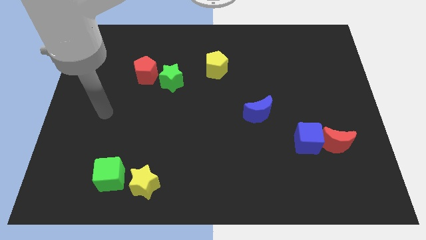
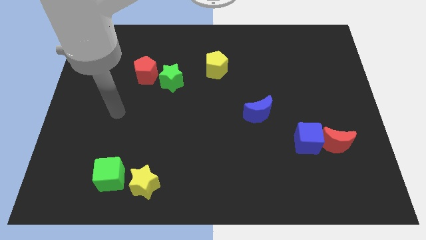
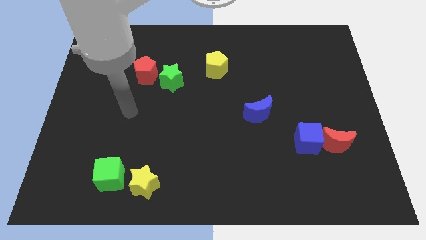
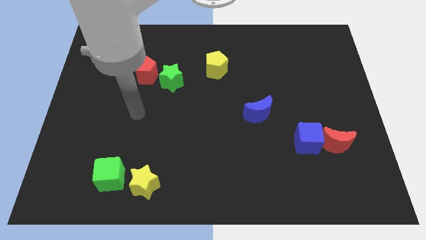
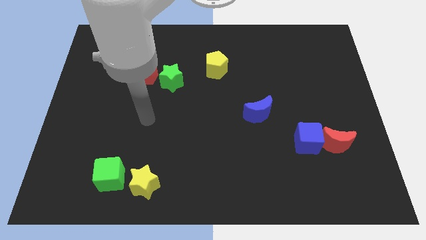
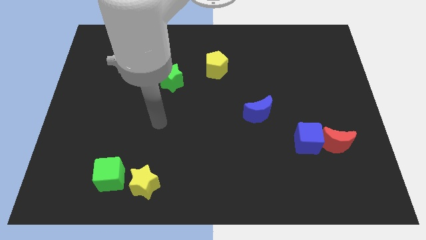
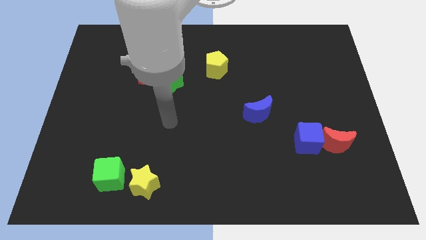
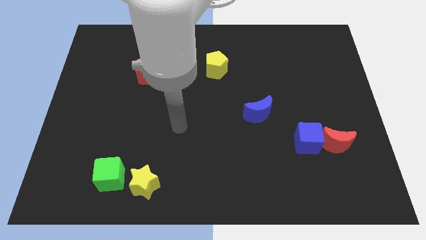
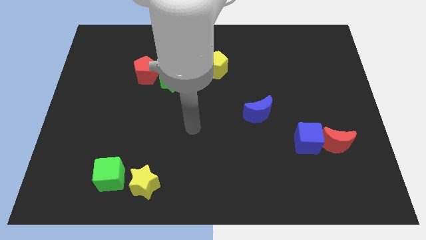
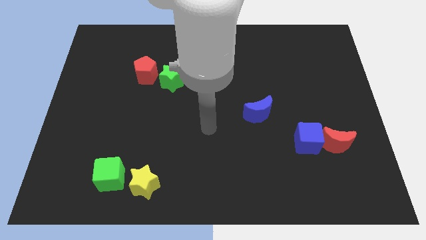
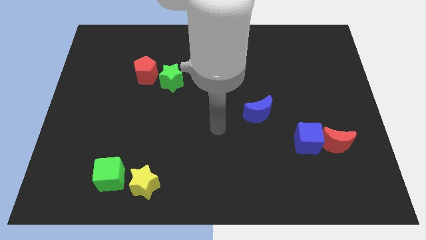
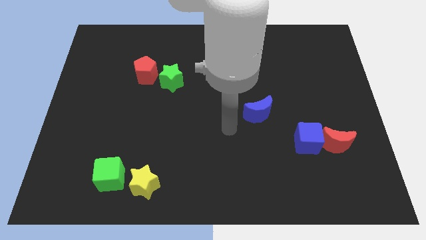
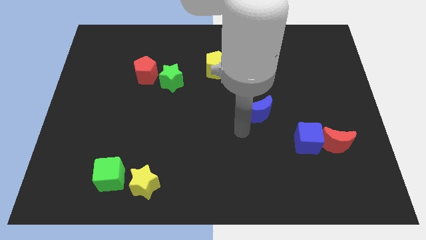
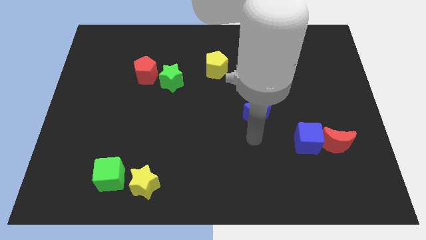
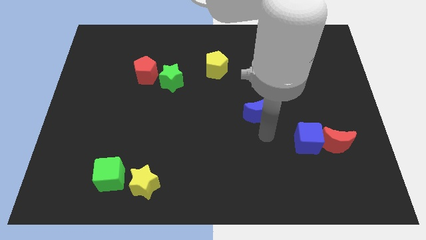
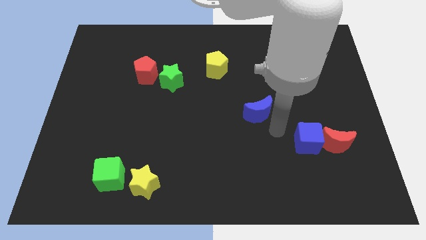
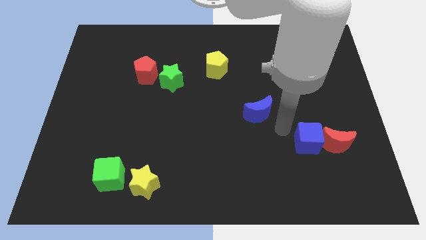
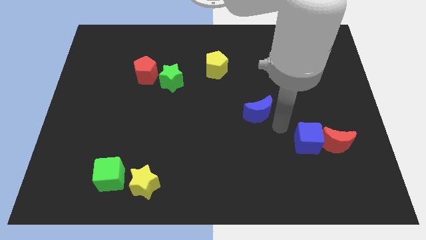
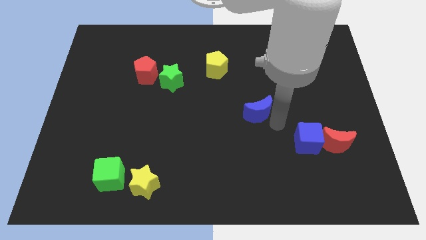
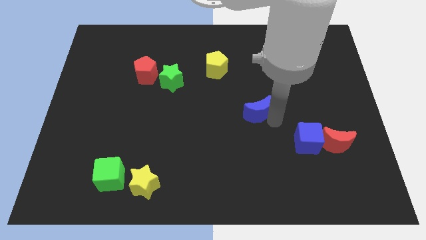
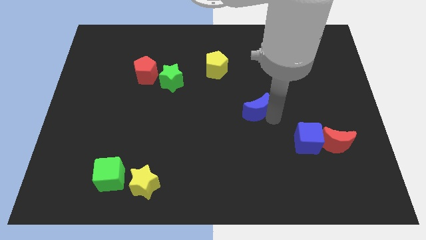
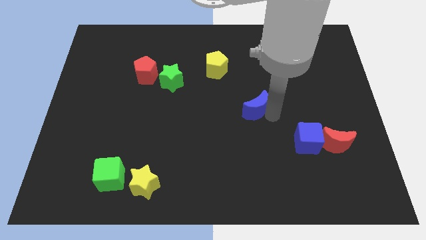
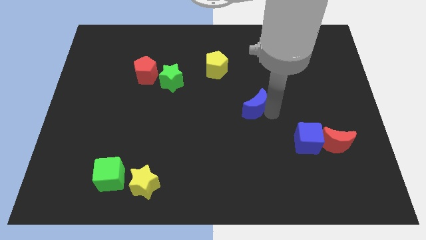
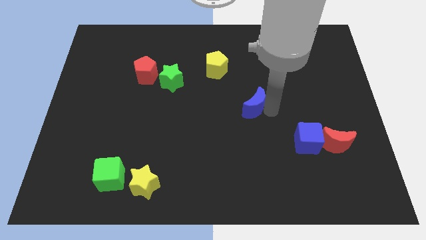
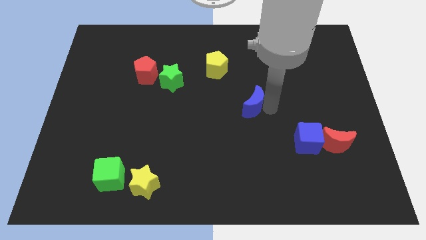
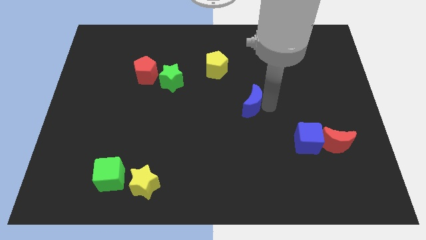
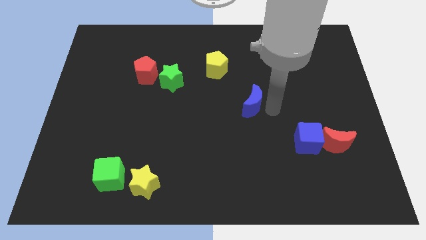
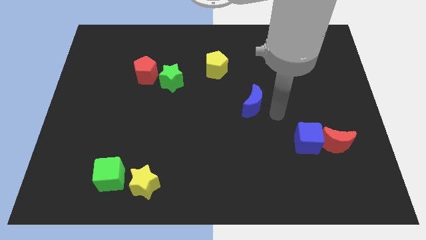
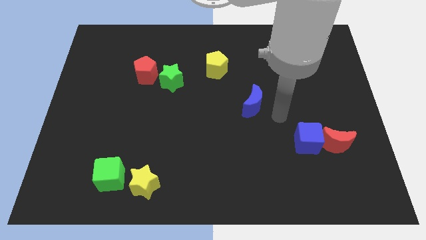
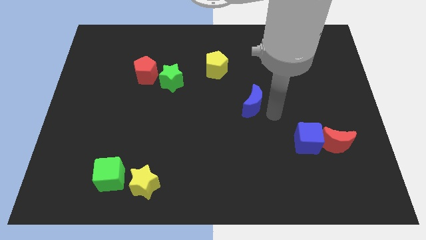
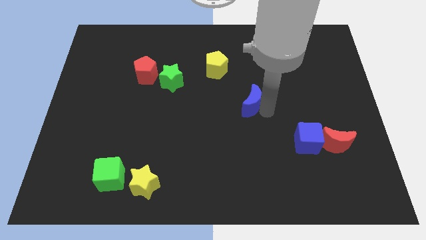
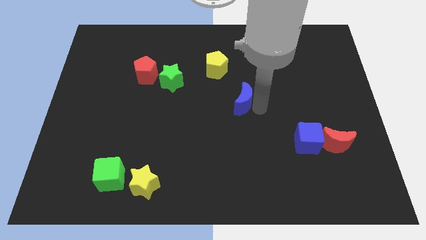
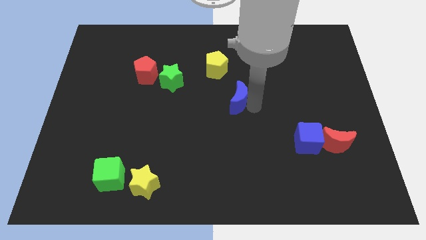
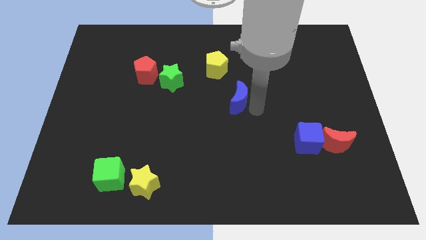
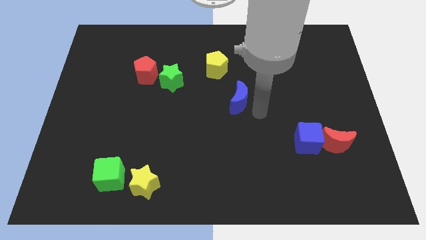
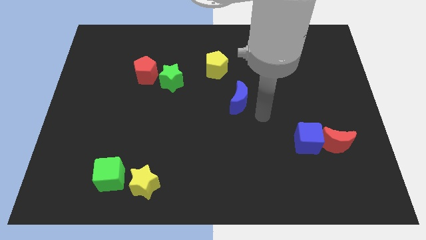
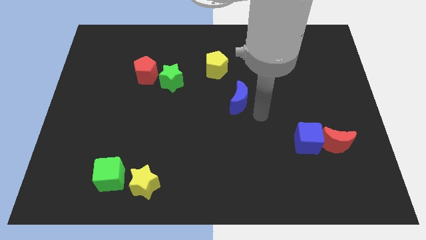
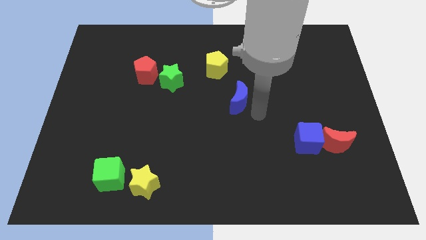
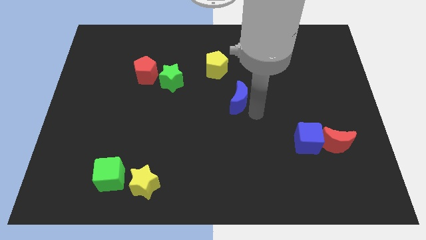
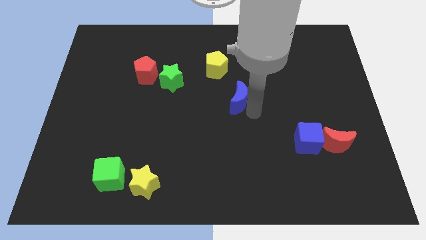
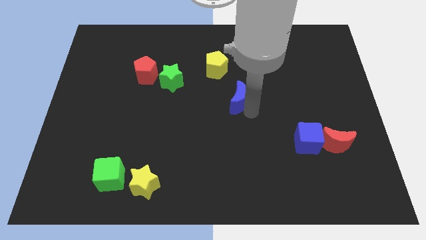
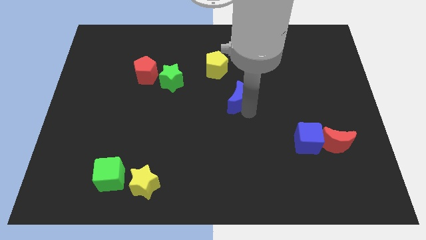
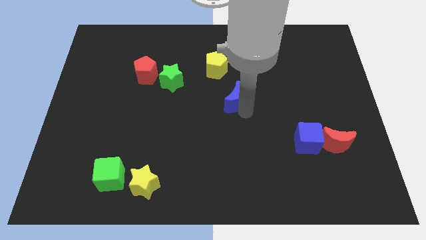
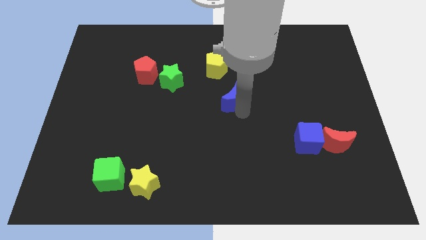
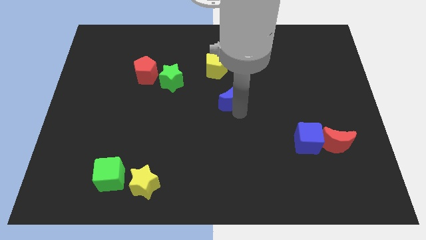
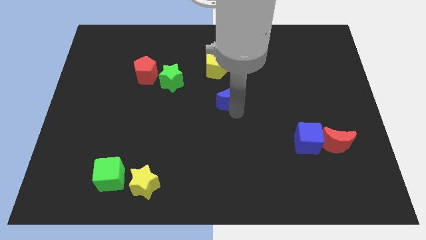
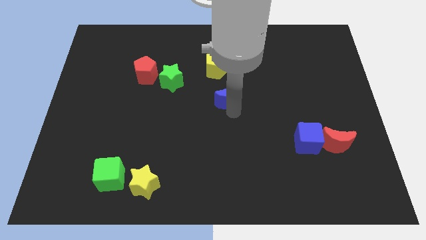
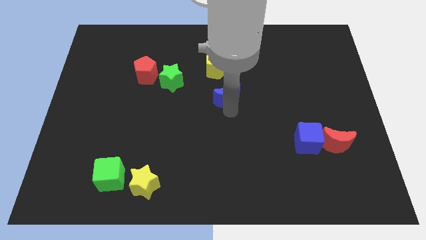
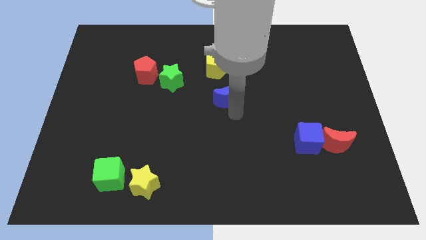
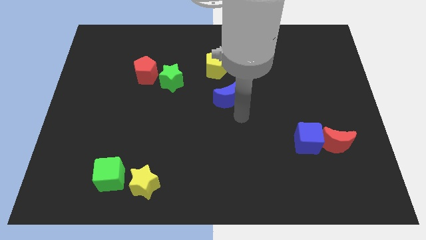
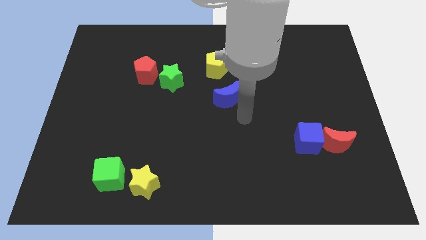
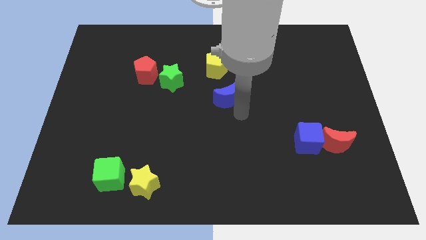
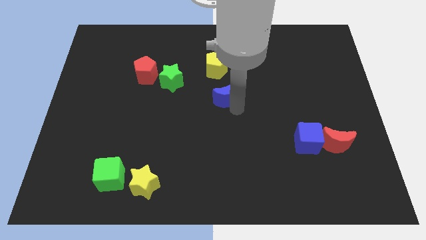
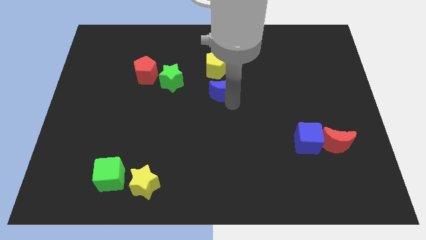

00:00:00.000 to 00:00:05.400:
move the blue moon just right of the green star

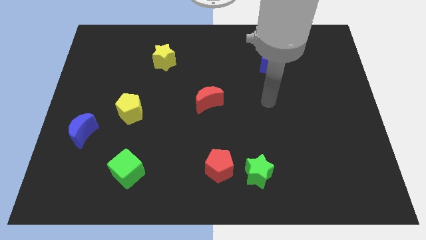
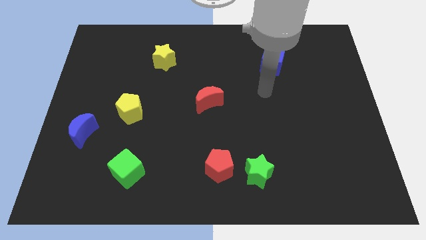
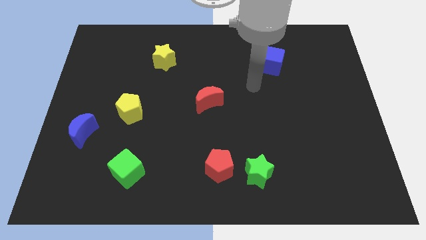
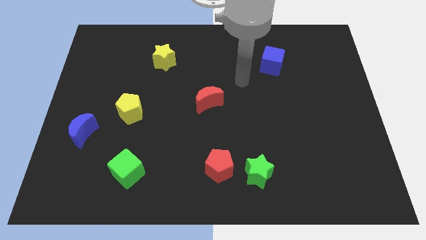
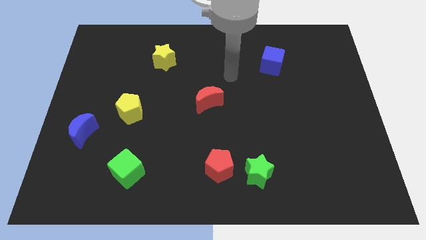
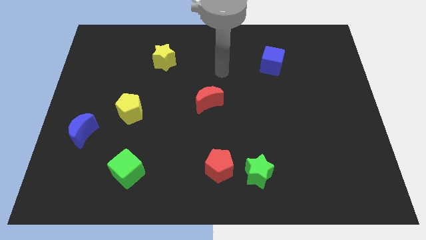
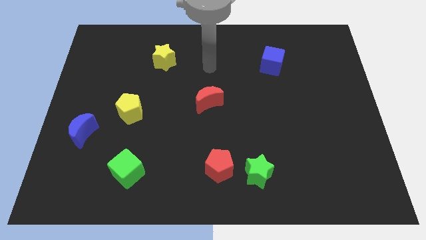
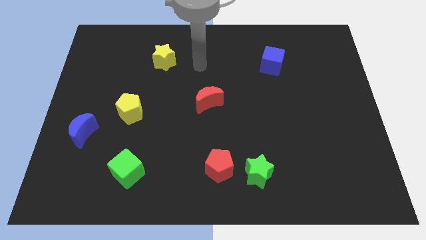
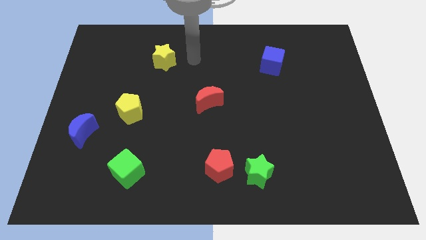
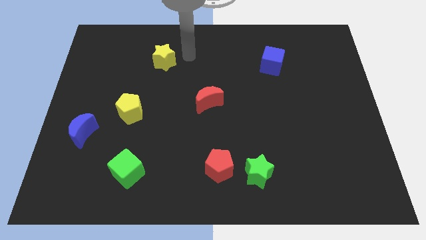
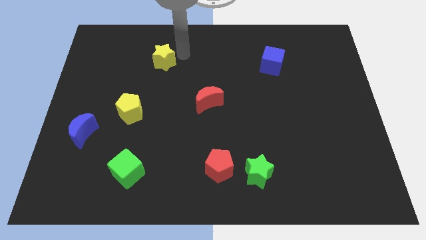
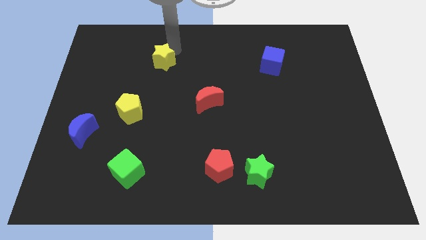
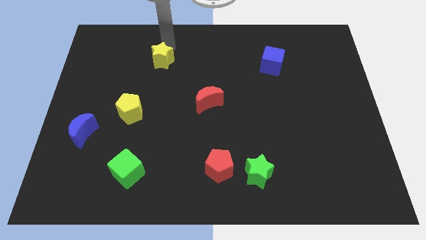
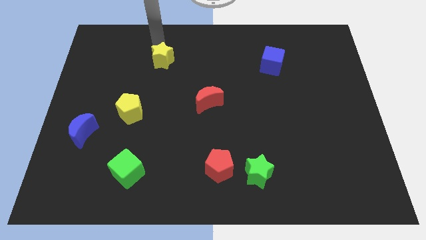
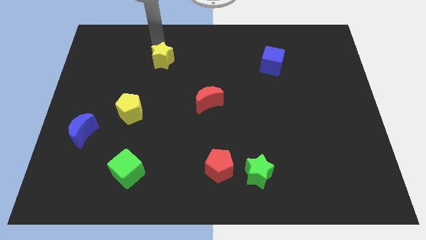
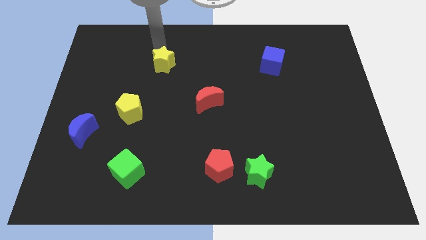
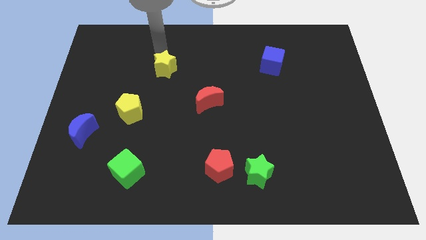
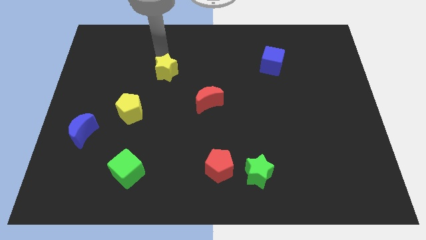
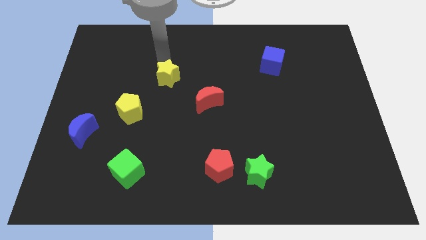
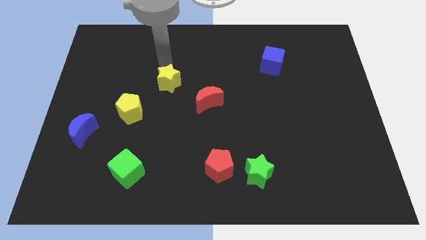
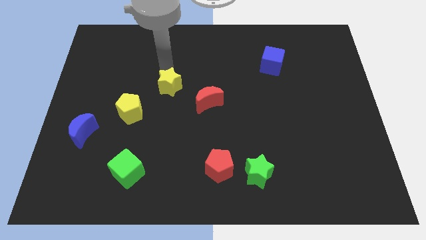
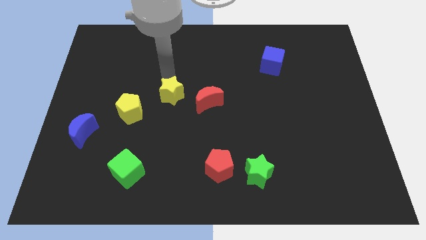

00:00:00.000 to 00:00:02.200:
push the yellow star right of the yellow pentagon
